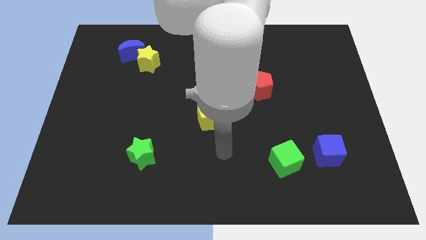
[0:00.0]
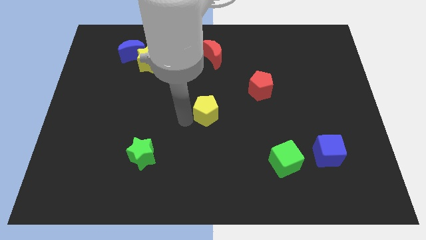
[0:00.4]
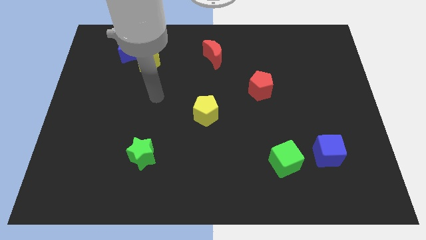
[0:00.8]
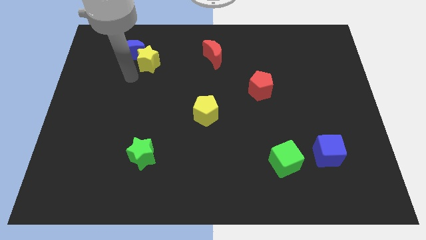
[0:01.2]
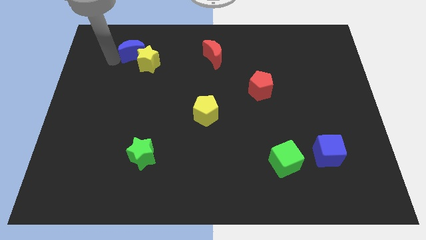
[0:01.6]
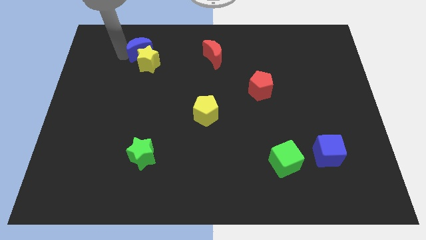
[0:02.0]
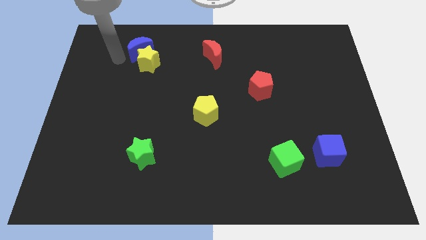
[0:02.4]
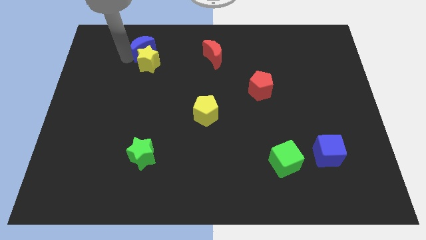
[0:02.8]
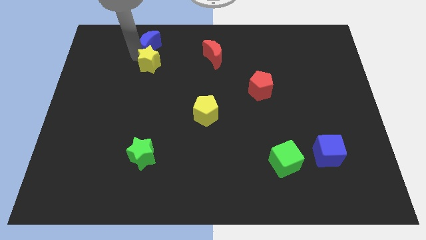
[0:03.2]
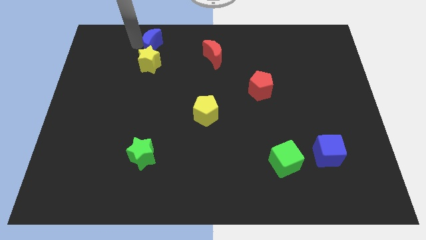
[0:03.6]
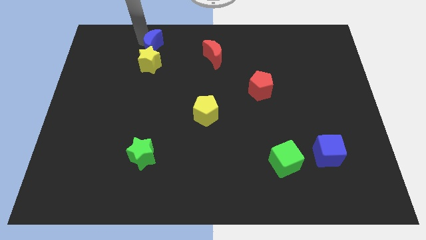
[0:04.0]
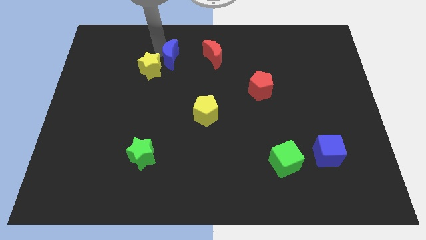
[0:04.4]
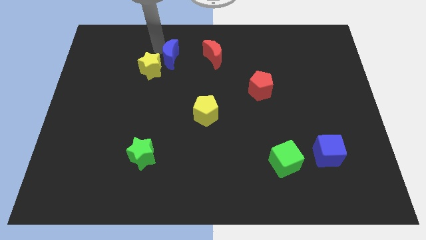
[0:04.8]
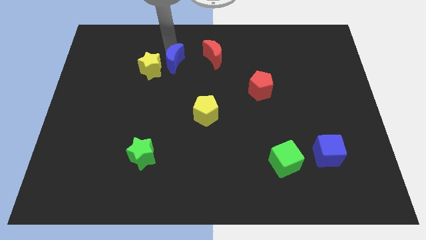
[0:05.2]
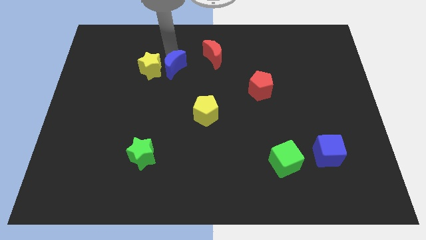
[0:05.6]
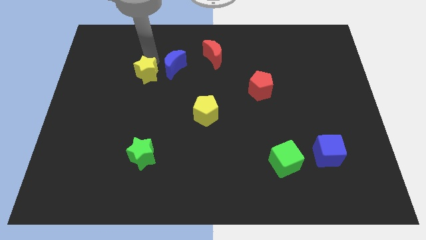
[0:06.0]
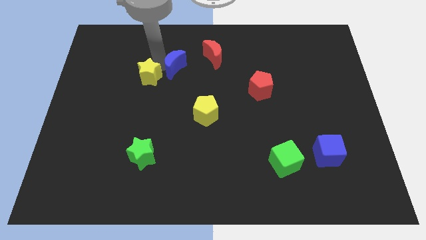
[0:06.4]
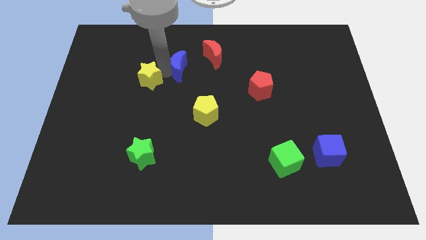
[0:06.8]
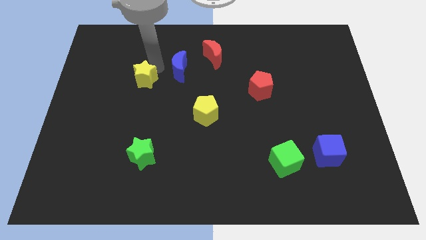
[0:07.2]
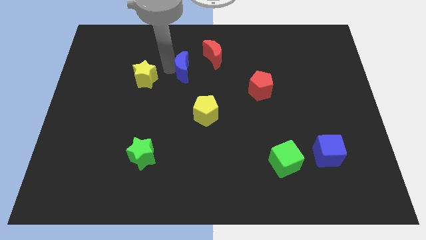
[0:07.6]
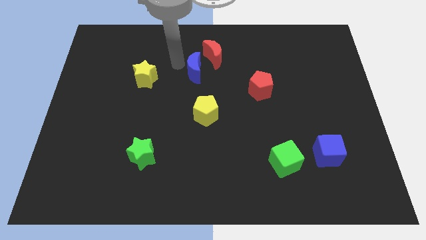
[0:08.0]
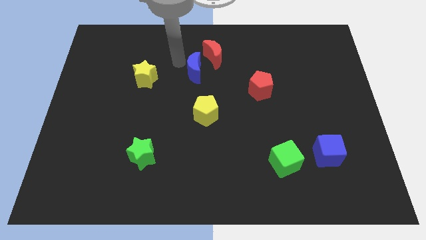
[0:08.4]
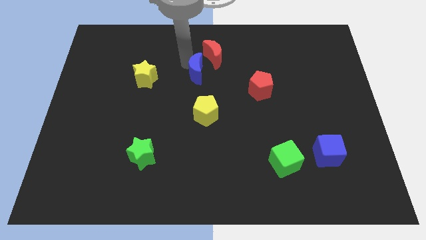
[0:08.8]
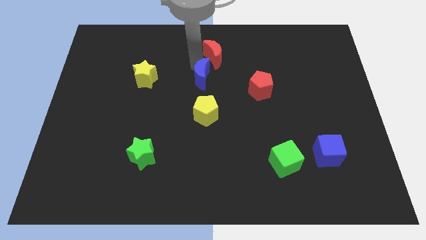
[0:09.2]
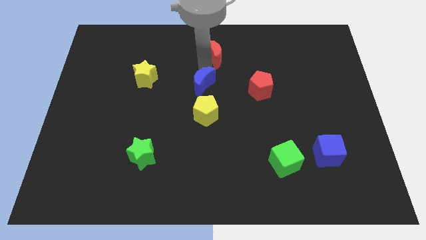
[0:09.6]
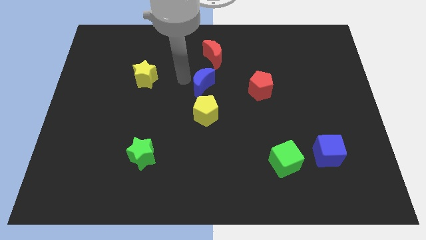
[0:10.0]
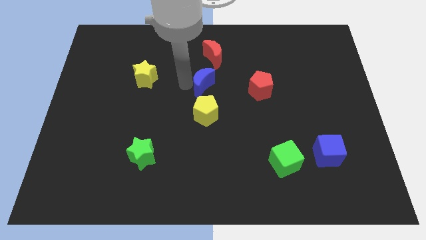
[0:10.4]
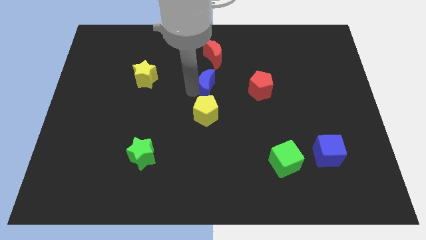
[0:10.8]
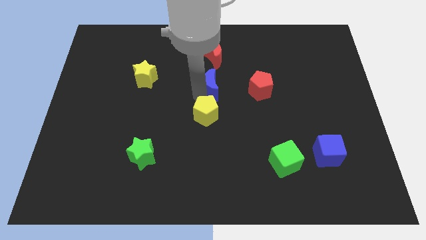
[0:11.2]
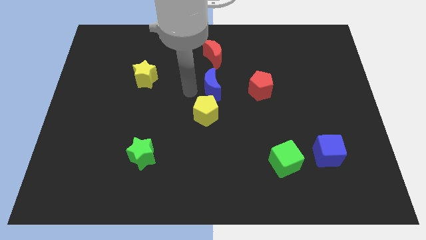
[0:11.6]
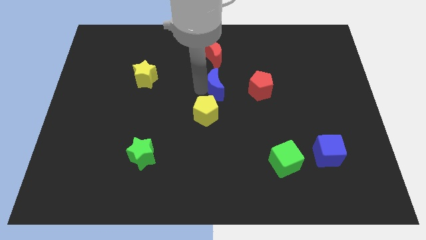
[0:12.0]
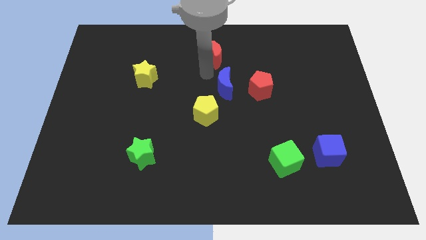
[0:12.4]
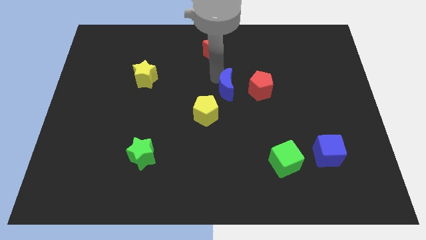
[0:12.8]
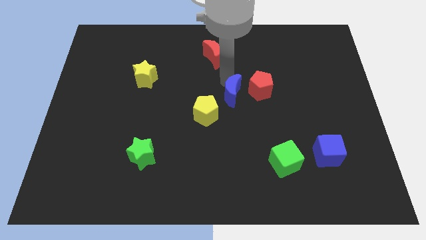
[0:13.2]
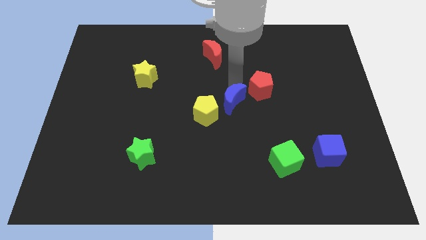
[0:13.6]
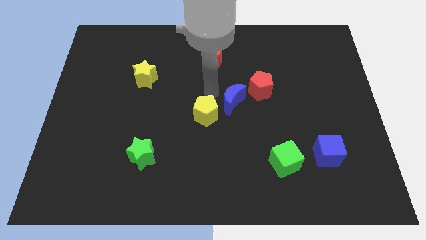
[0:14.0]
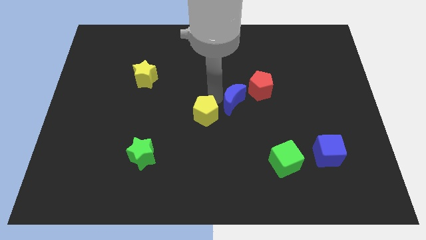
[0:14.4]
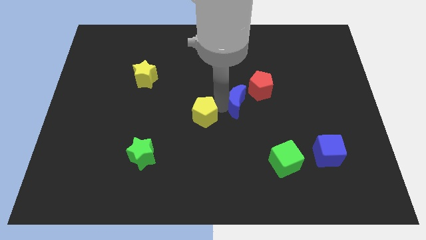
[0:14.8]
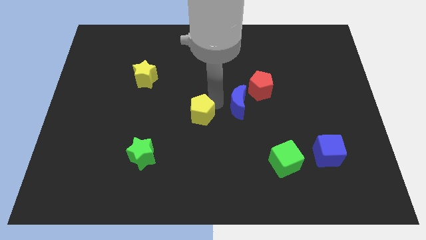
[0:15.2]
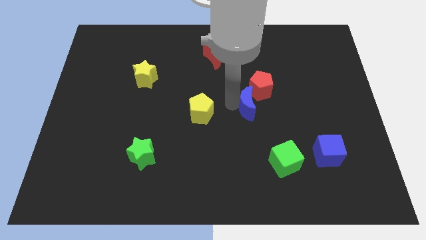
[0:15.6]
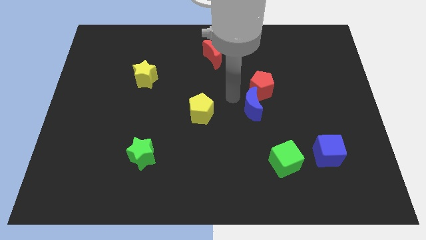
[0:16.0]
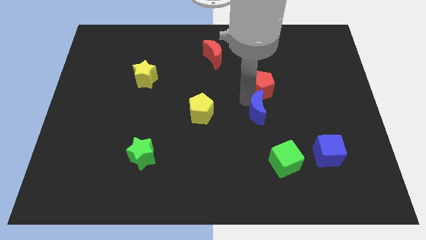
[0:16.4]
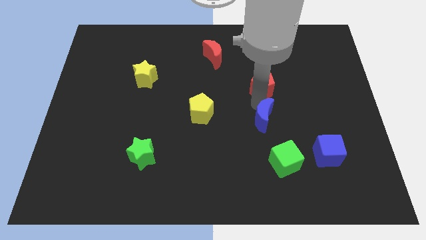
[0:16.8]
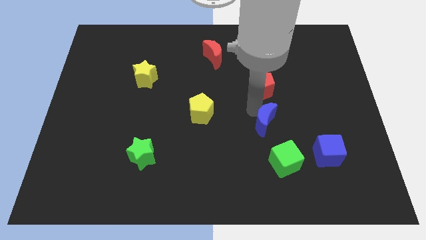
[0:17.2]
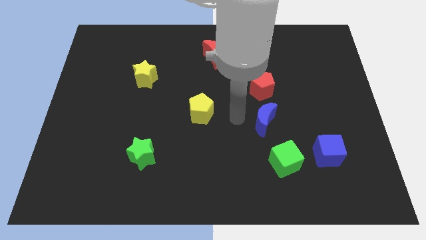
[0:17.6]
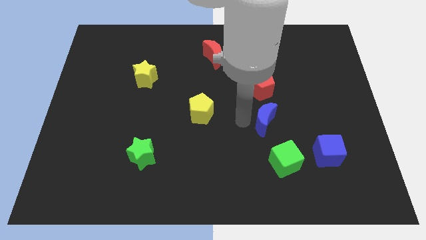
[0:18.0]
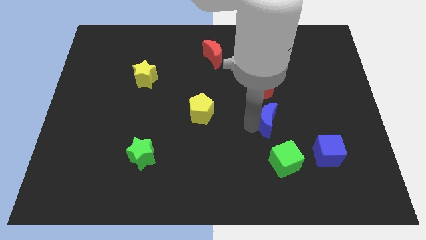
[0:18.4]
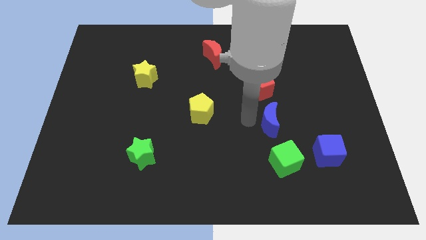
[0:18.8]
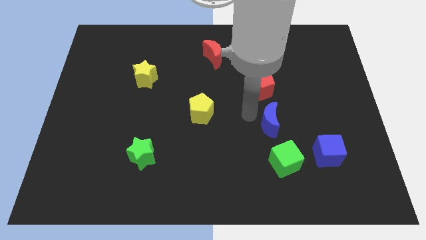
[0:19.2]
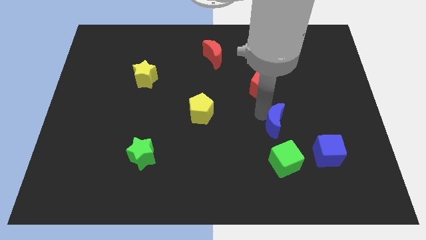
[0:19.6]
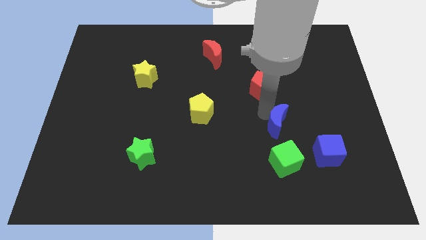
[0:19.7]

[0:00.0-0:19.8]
move the blue moon diagonally up and to the left of the blue cube

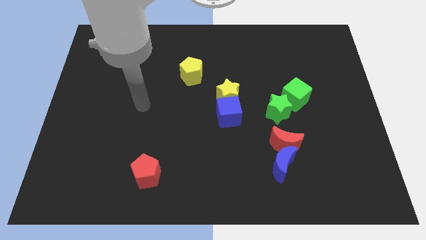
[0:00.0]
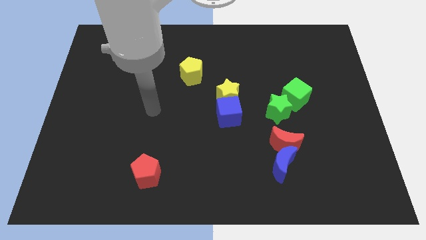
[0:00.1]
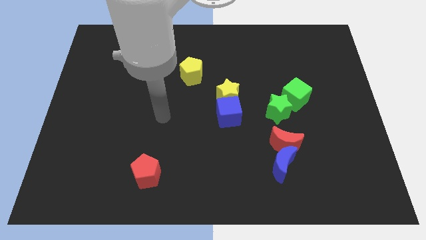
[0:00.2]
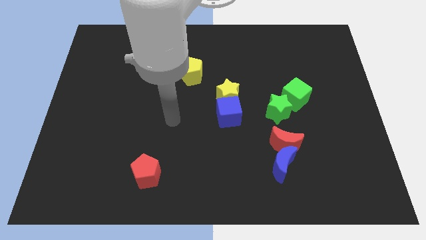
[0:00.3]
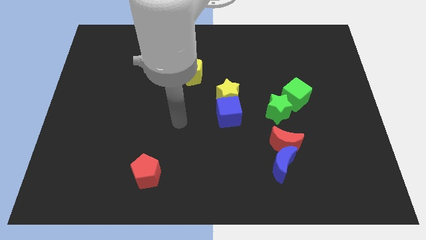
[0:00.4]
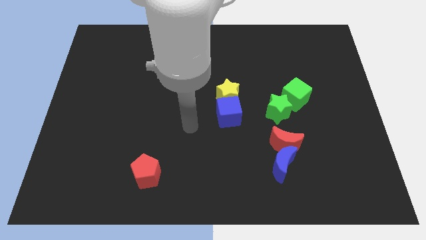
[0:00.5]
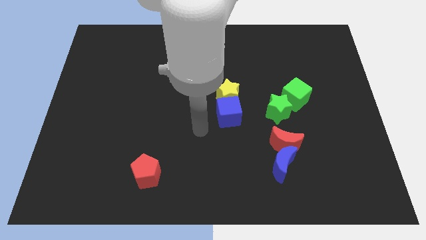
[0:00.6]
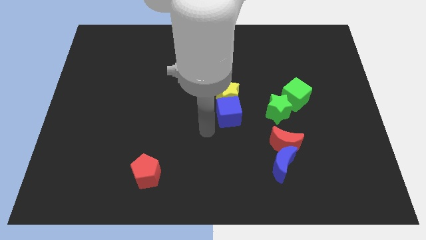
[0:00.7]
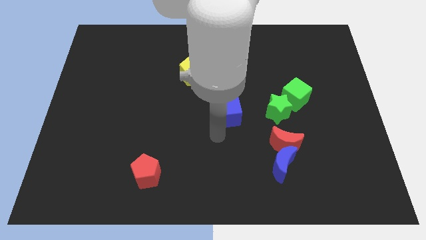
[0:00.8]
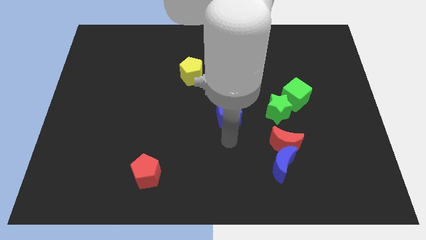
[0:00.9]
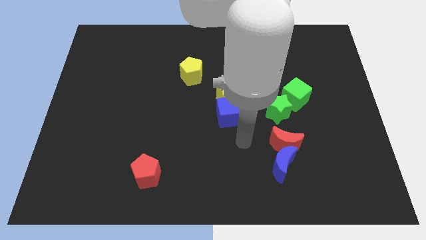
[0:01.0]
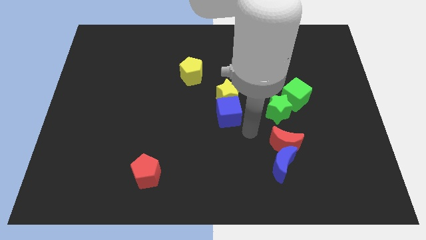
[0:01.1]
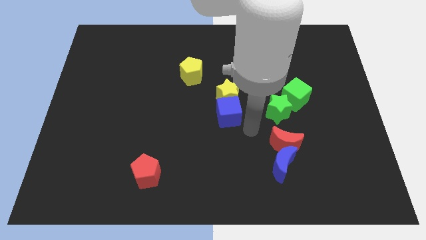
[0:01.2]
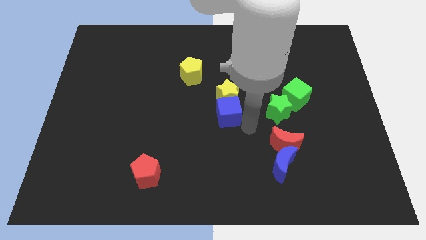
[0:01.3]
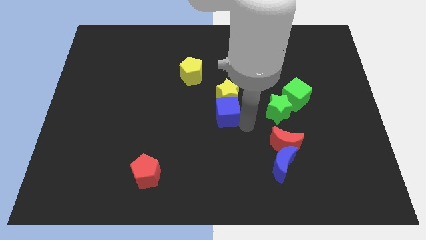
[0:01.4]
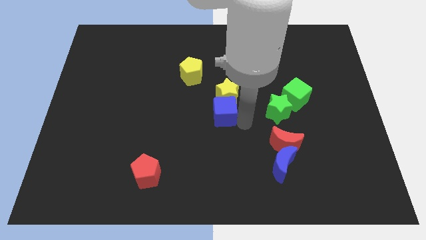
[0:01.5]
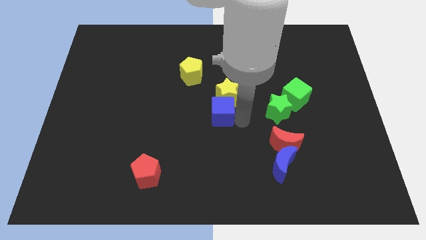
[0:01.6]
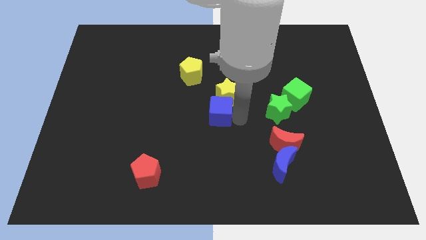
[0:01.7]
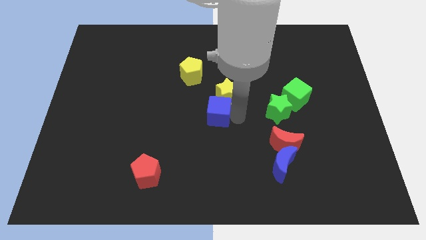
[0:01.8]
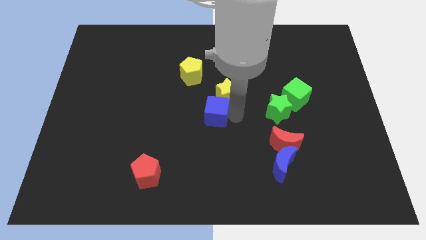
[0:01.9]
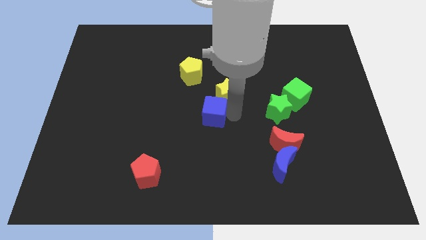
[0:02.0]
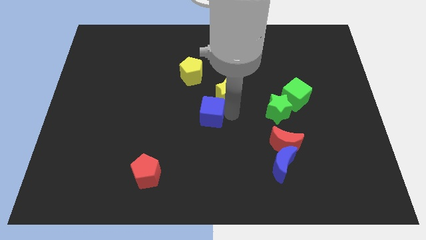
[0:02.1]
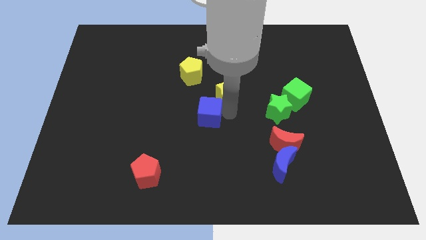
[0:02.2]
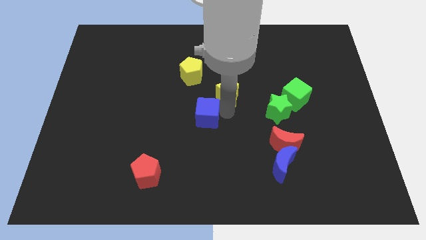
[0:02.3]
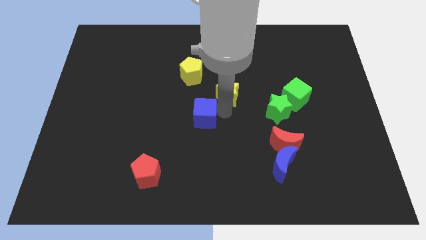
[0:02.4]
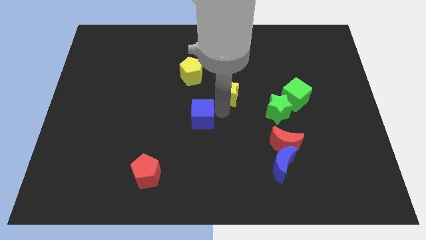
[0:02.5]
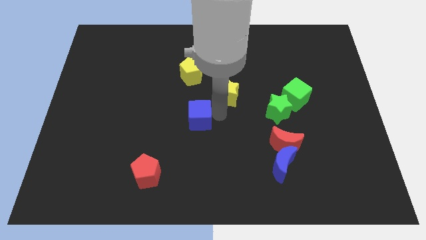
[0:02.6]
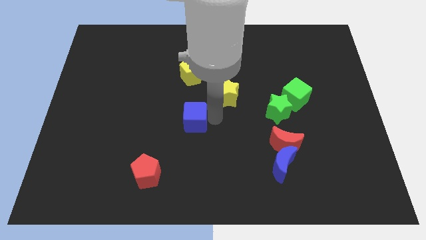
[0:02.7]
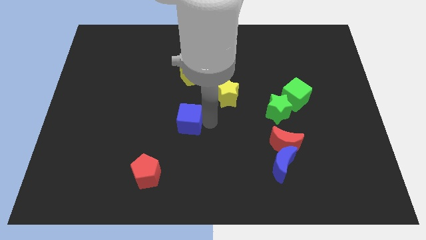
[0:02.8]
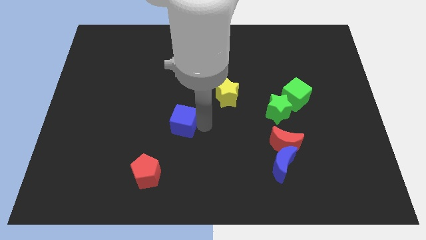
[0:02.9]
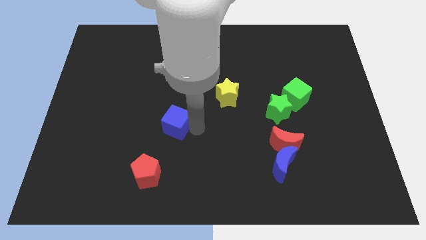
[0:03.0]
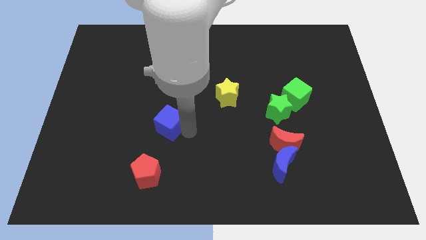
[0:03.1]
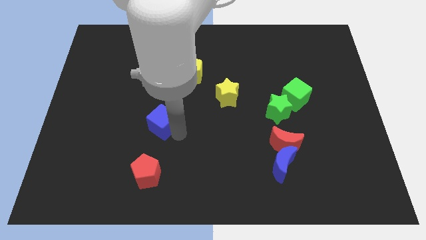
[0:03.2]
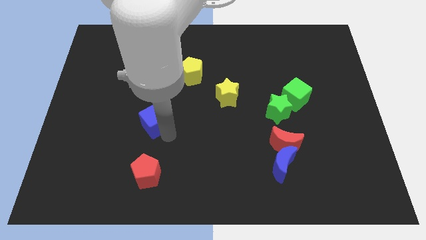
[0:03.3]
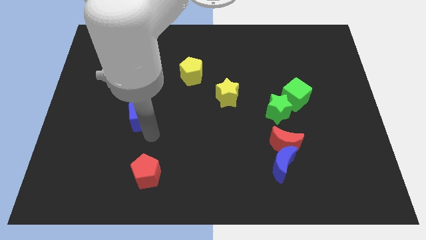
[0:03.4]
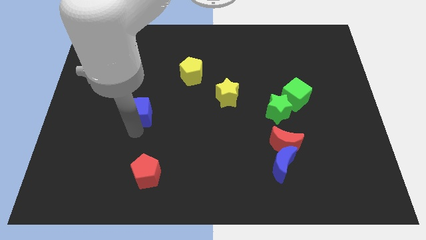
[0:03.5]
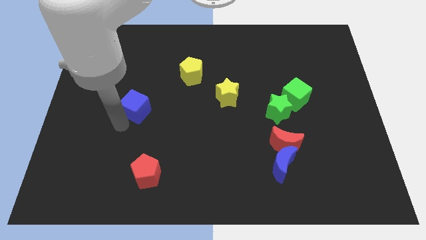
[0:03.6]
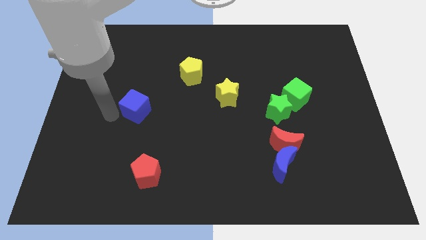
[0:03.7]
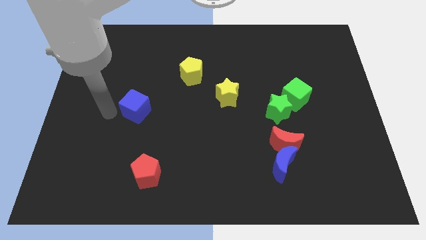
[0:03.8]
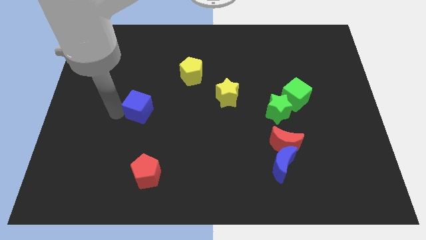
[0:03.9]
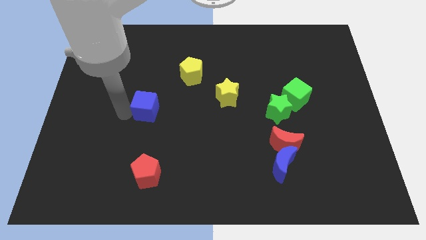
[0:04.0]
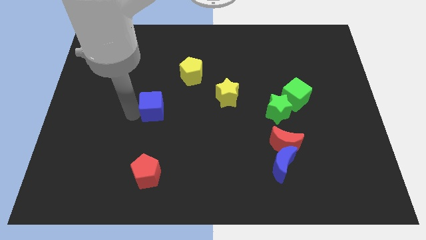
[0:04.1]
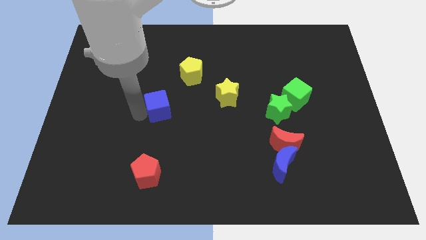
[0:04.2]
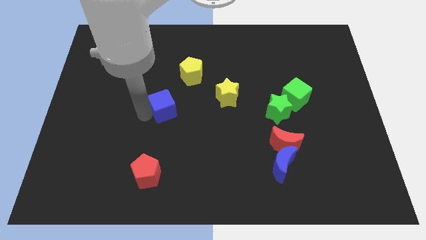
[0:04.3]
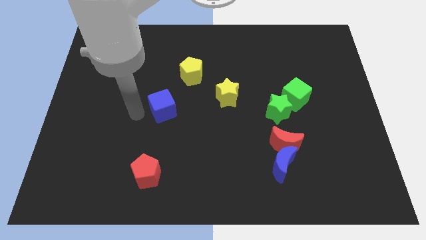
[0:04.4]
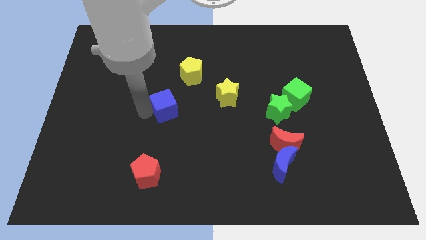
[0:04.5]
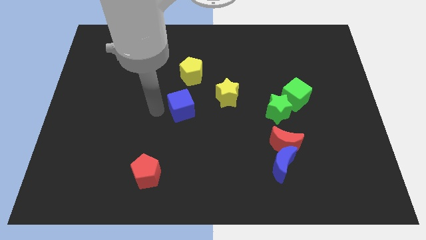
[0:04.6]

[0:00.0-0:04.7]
slide the blue cube to the left side of the yellow star
